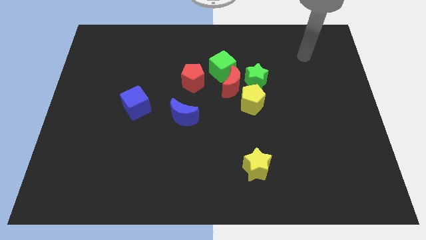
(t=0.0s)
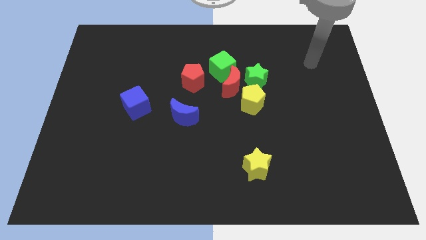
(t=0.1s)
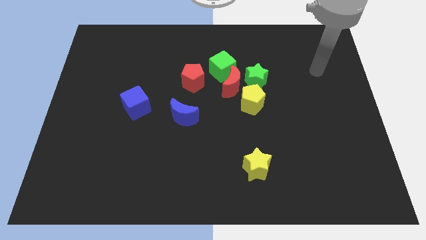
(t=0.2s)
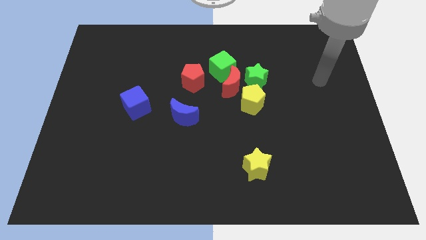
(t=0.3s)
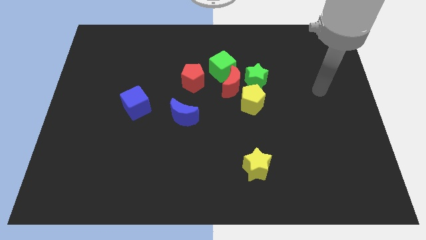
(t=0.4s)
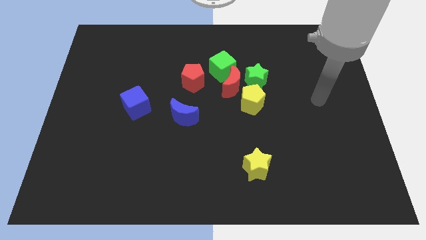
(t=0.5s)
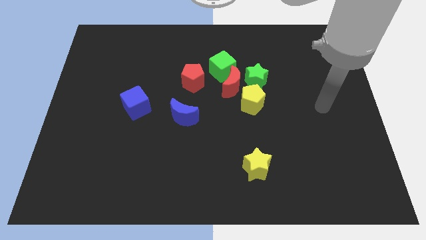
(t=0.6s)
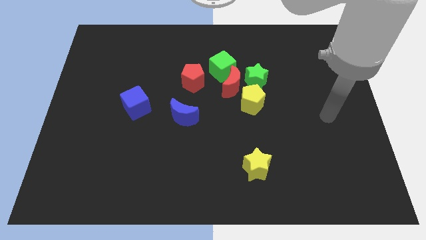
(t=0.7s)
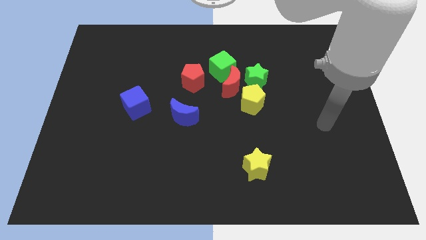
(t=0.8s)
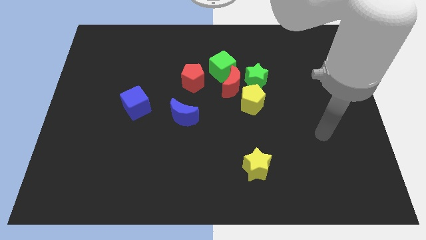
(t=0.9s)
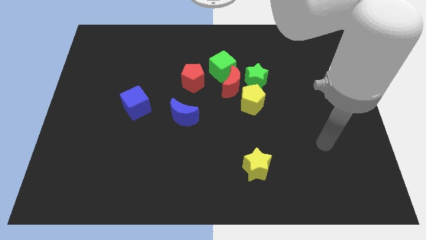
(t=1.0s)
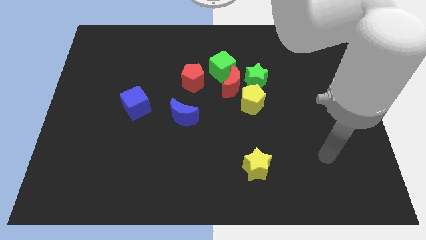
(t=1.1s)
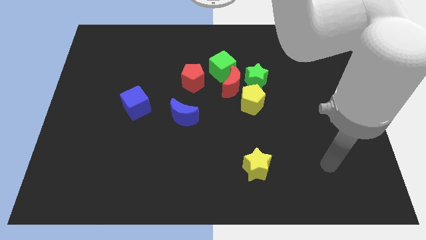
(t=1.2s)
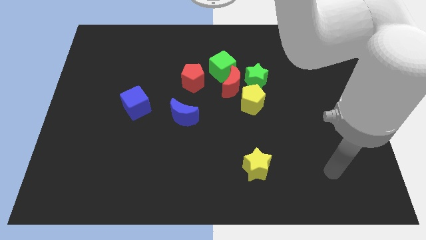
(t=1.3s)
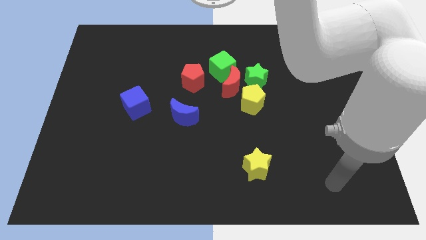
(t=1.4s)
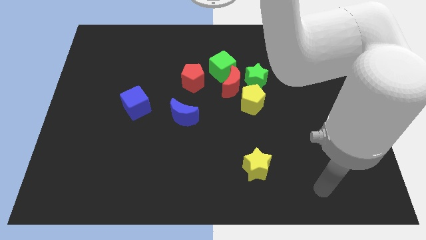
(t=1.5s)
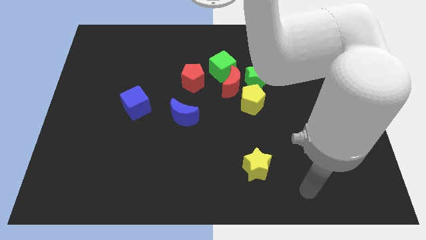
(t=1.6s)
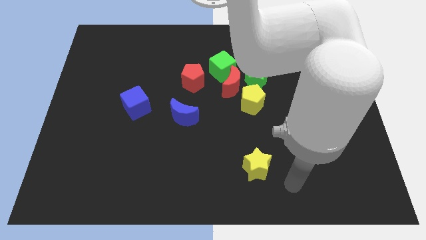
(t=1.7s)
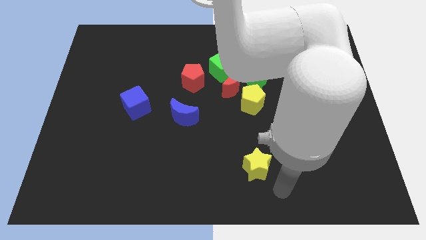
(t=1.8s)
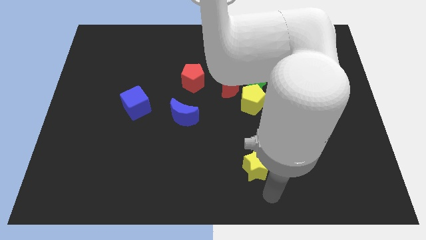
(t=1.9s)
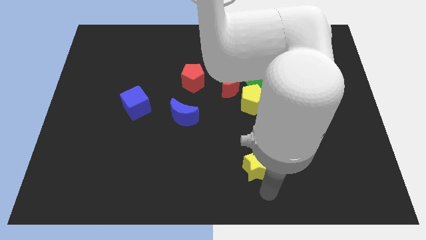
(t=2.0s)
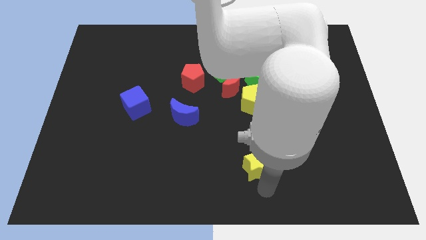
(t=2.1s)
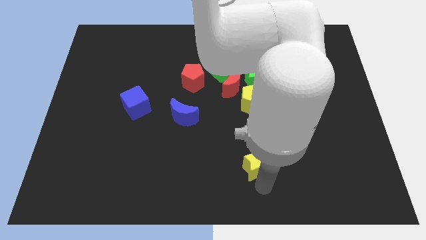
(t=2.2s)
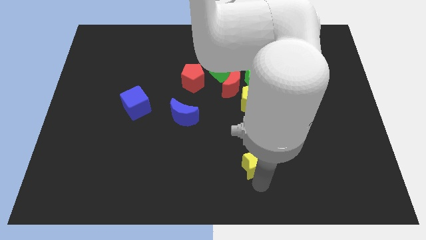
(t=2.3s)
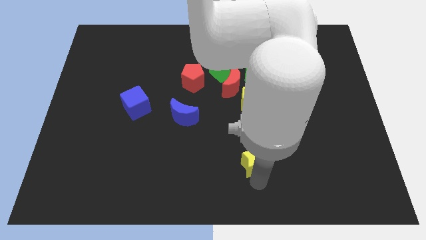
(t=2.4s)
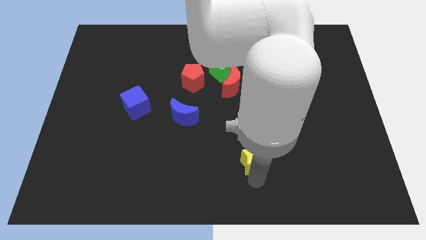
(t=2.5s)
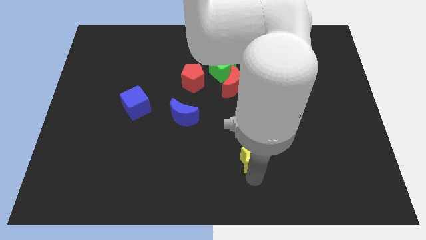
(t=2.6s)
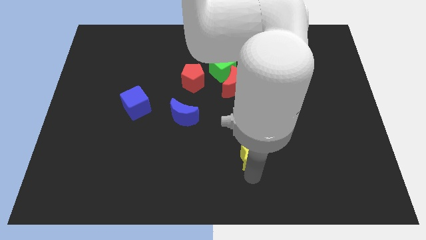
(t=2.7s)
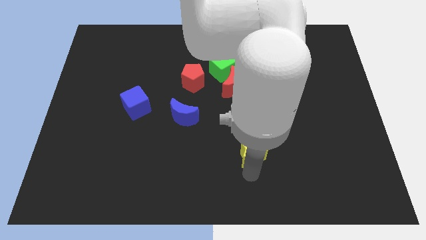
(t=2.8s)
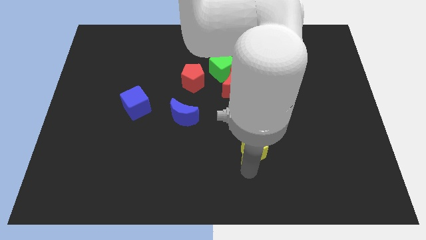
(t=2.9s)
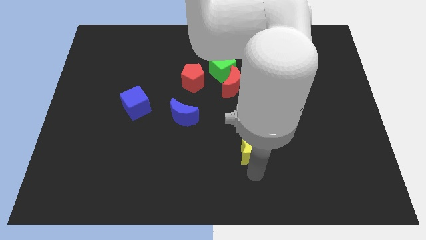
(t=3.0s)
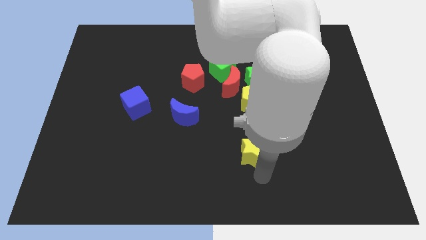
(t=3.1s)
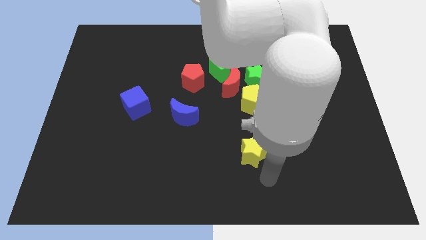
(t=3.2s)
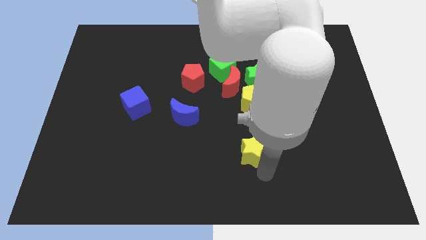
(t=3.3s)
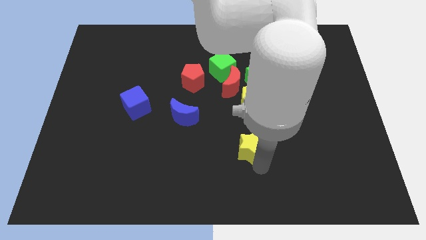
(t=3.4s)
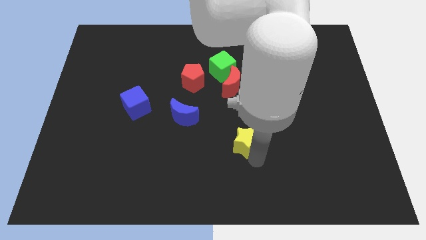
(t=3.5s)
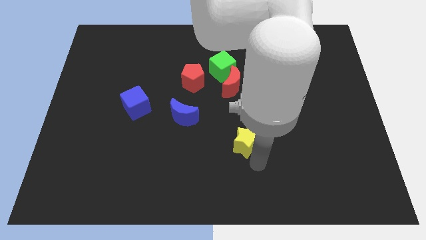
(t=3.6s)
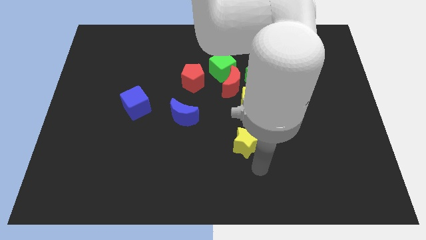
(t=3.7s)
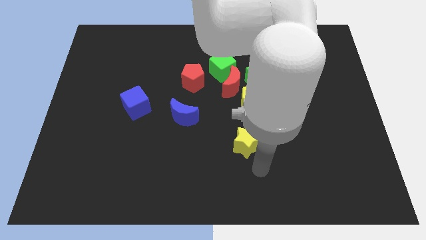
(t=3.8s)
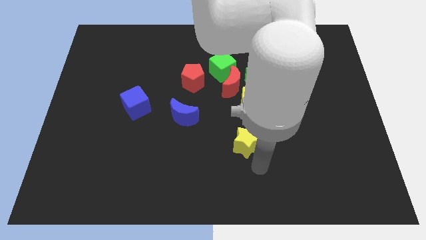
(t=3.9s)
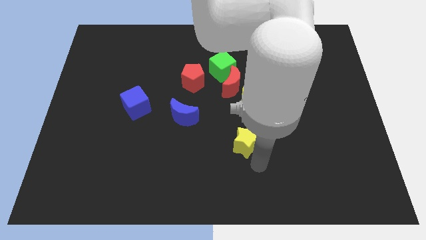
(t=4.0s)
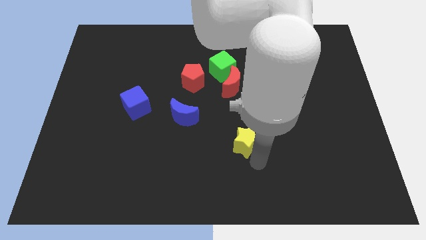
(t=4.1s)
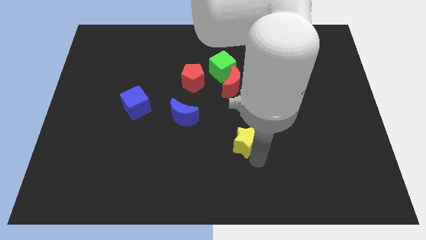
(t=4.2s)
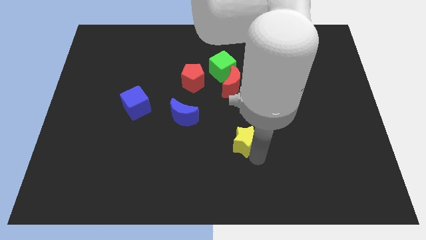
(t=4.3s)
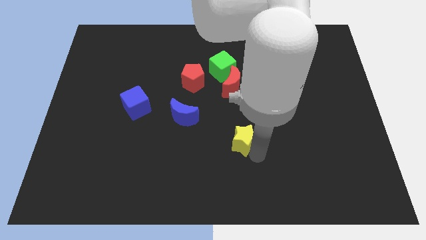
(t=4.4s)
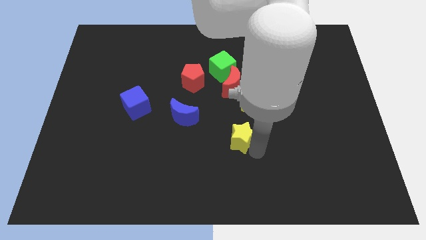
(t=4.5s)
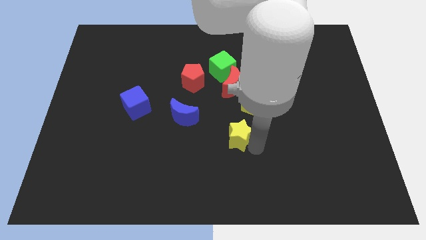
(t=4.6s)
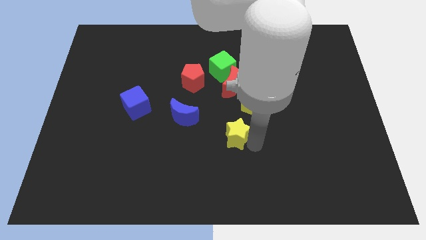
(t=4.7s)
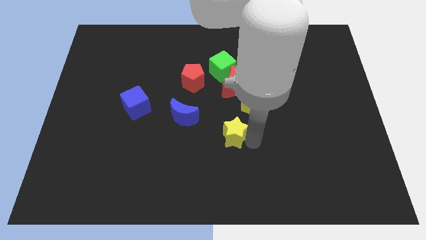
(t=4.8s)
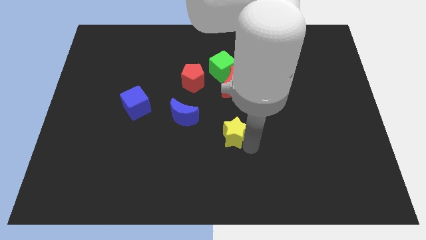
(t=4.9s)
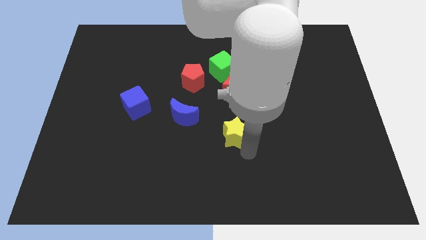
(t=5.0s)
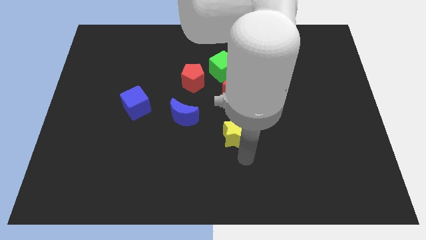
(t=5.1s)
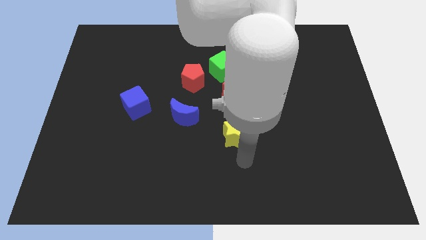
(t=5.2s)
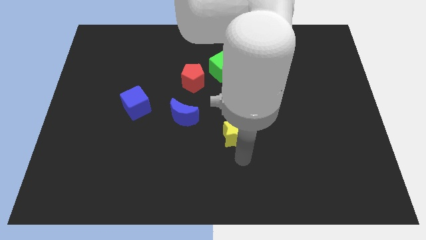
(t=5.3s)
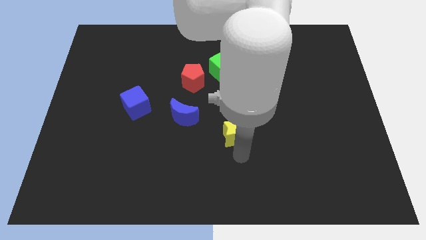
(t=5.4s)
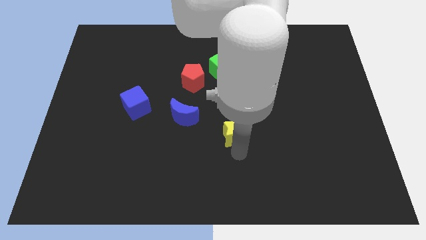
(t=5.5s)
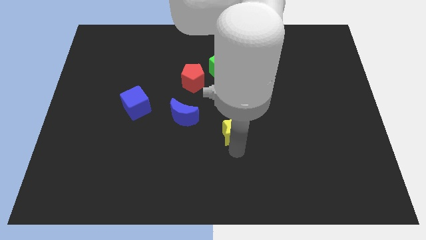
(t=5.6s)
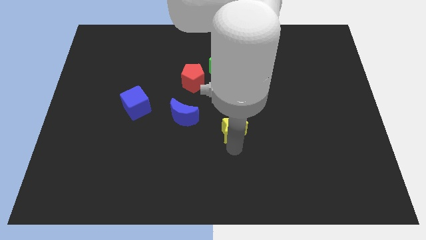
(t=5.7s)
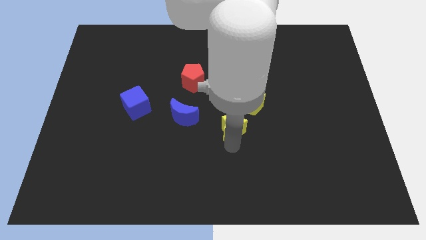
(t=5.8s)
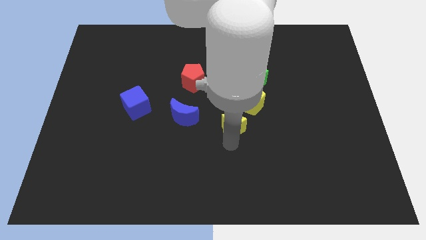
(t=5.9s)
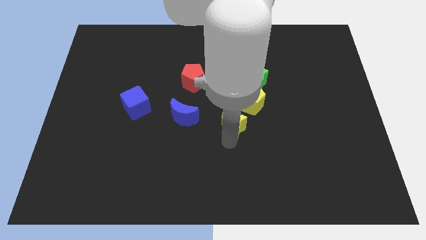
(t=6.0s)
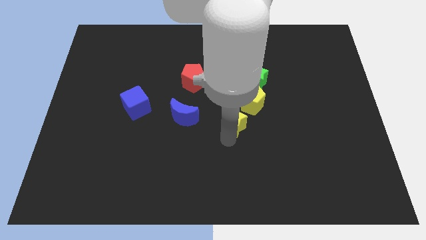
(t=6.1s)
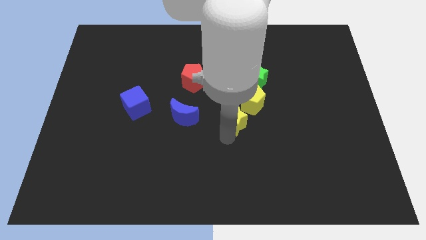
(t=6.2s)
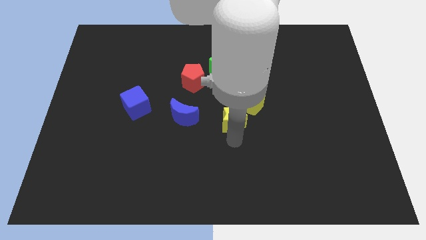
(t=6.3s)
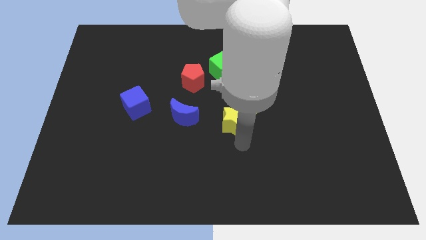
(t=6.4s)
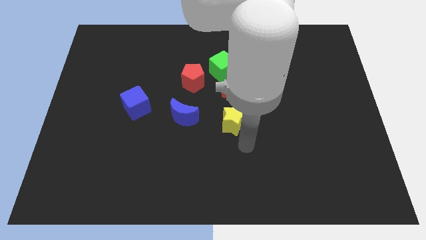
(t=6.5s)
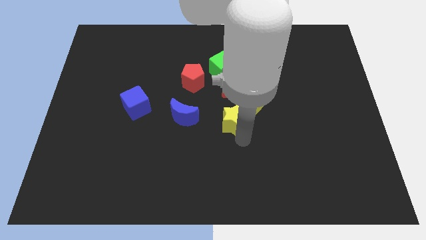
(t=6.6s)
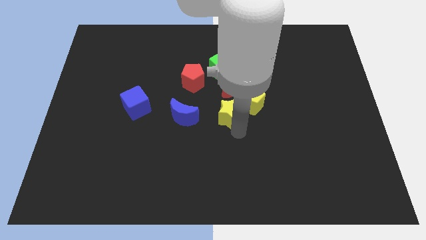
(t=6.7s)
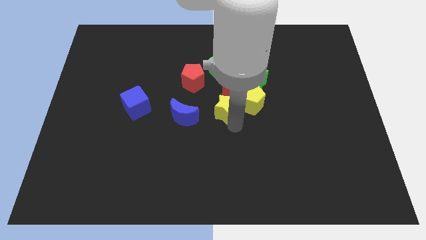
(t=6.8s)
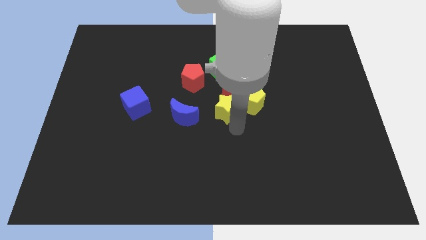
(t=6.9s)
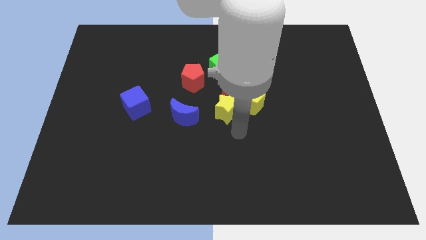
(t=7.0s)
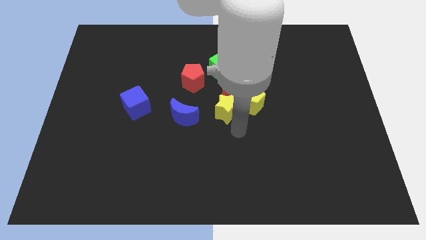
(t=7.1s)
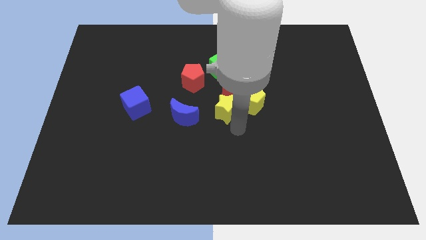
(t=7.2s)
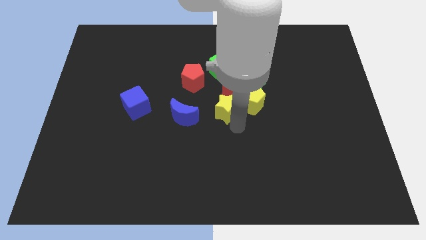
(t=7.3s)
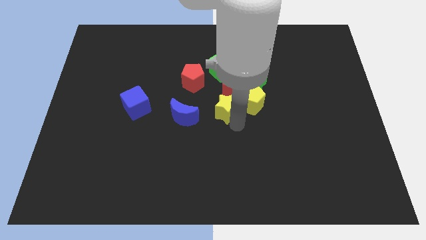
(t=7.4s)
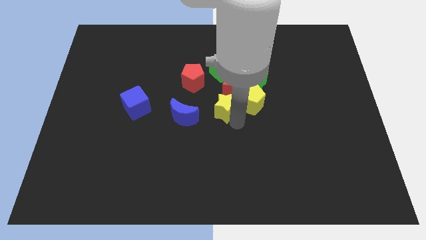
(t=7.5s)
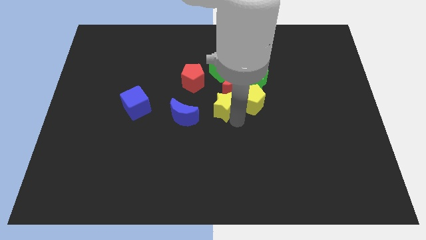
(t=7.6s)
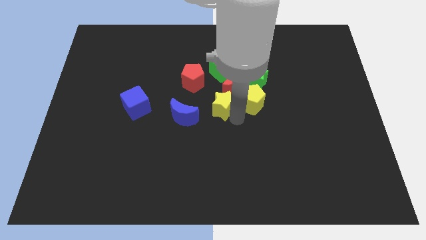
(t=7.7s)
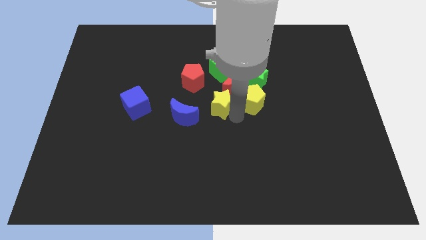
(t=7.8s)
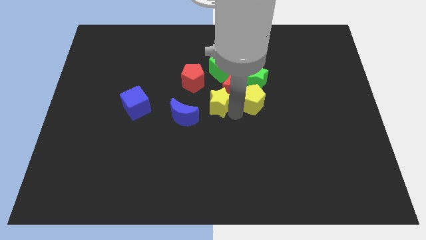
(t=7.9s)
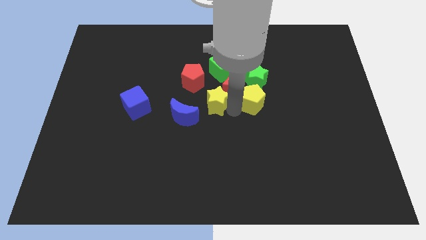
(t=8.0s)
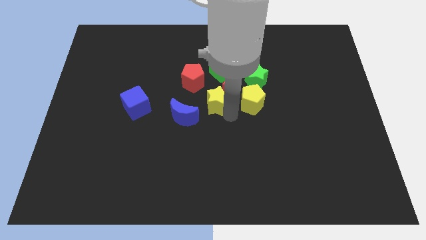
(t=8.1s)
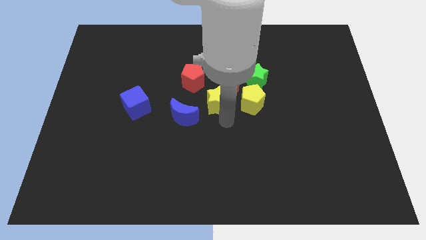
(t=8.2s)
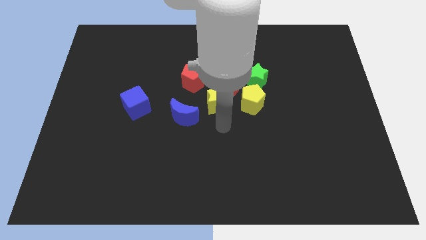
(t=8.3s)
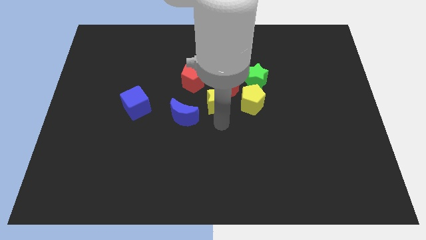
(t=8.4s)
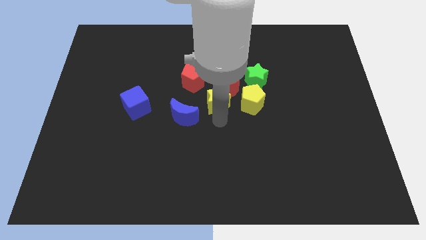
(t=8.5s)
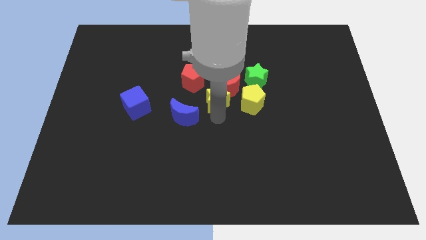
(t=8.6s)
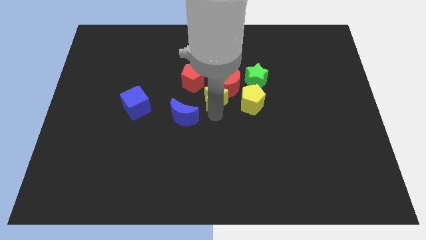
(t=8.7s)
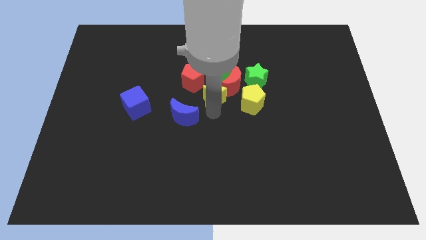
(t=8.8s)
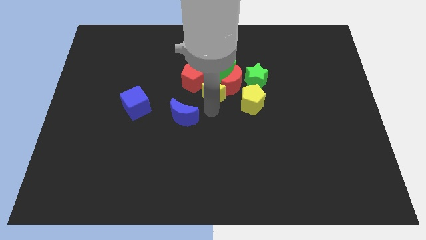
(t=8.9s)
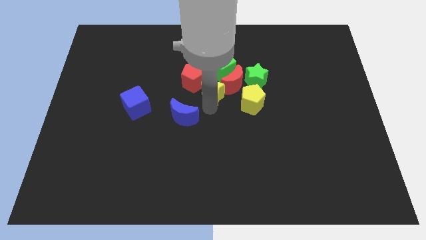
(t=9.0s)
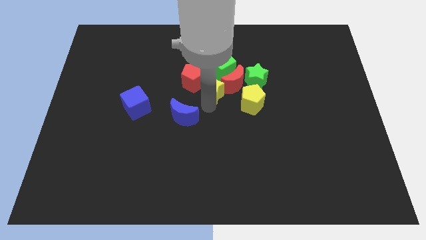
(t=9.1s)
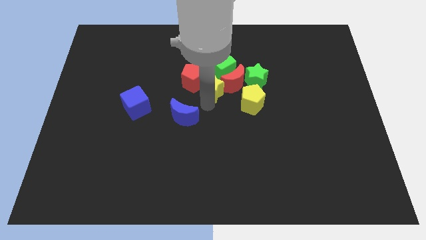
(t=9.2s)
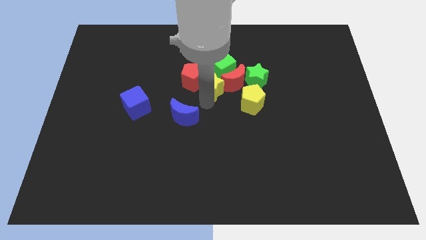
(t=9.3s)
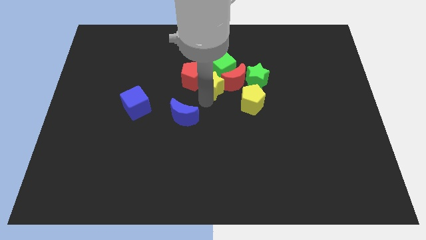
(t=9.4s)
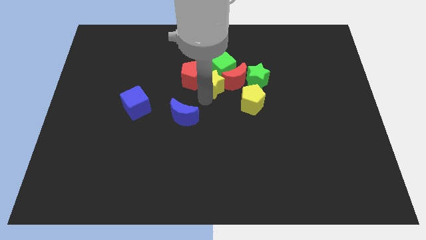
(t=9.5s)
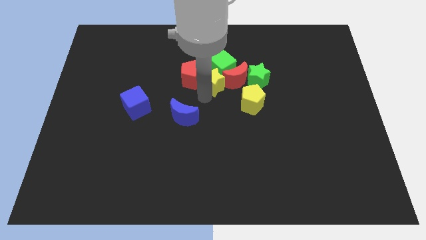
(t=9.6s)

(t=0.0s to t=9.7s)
put the yellow star to the green cube
